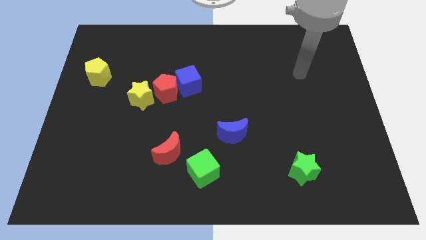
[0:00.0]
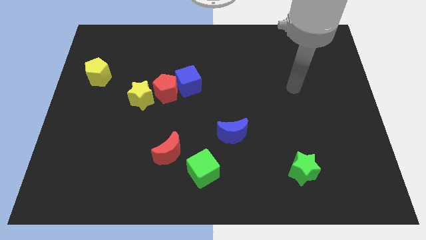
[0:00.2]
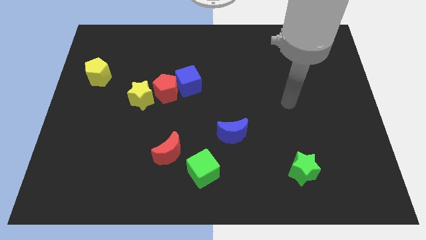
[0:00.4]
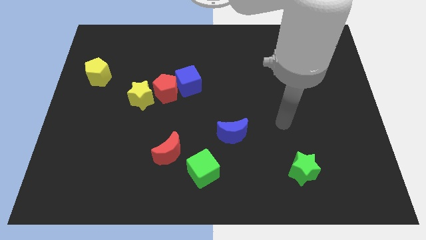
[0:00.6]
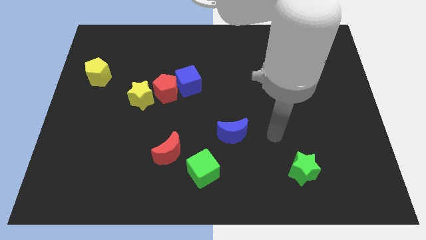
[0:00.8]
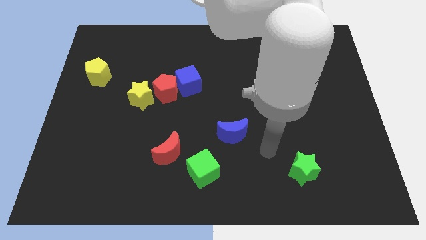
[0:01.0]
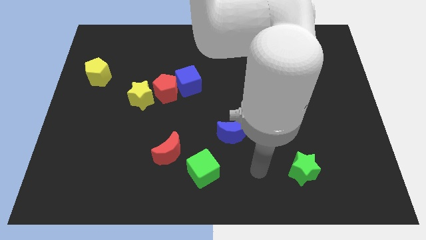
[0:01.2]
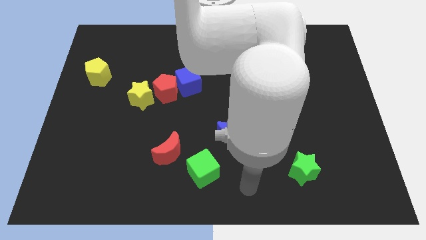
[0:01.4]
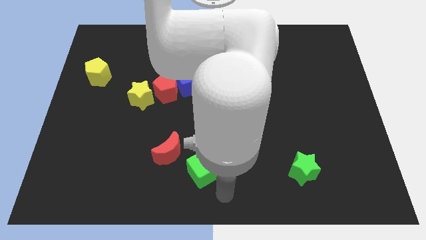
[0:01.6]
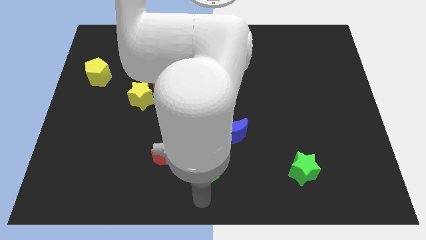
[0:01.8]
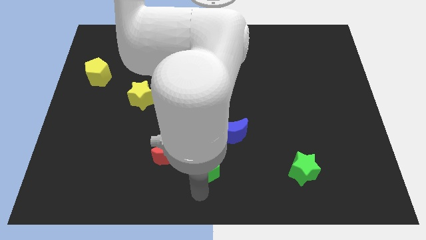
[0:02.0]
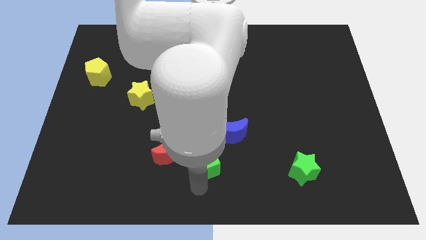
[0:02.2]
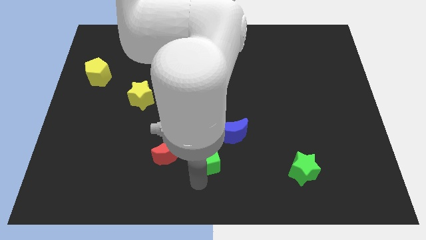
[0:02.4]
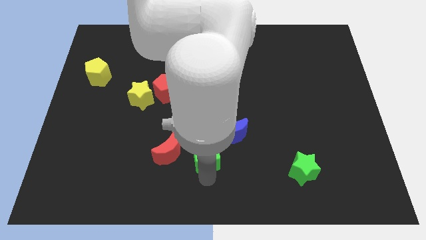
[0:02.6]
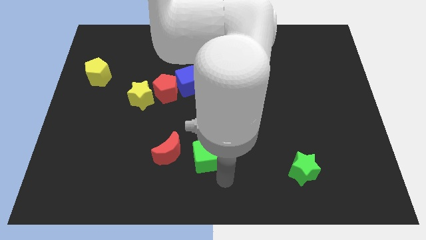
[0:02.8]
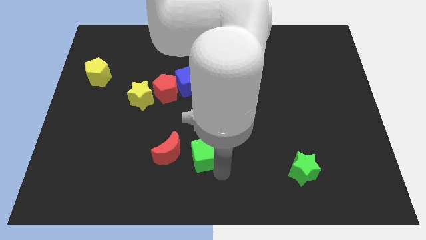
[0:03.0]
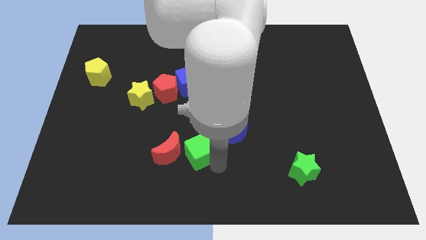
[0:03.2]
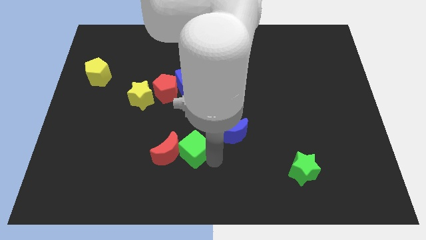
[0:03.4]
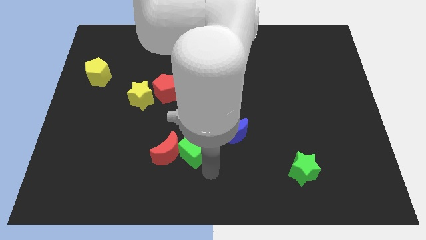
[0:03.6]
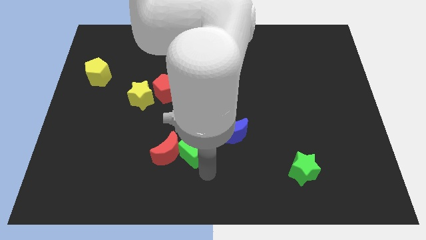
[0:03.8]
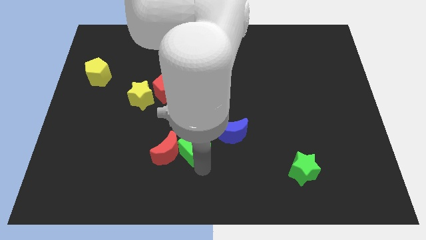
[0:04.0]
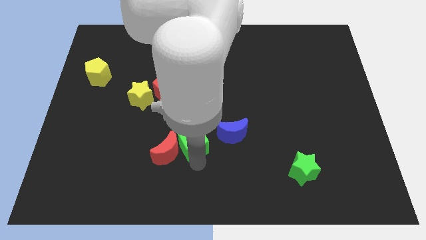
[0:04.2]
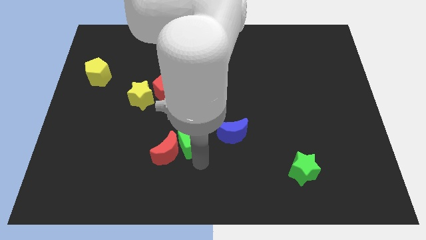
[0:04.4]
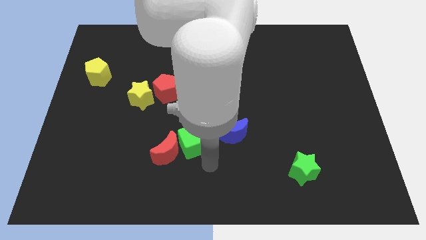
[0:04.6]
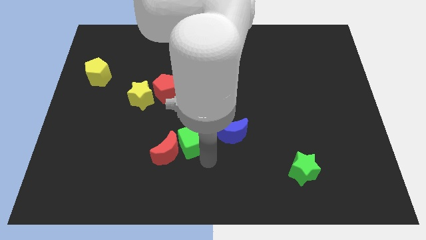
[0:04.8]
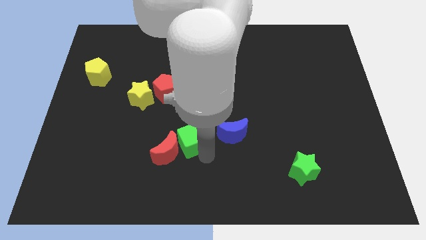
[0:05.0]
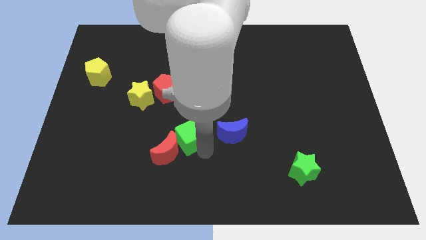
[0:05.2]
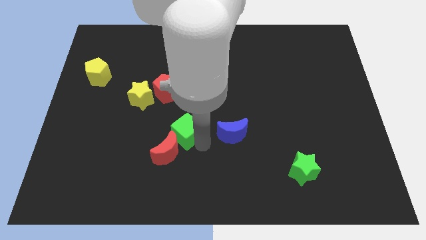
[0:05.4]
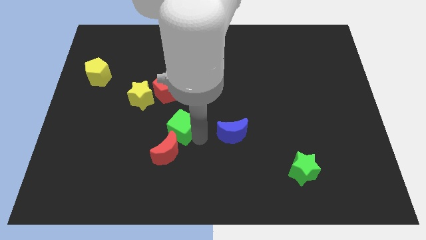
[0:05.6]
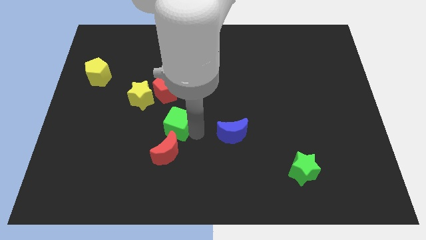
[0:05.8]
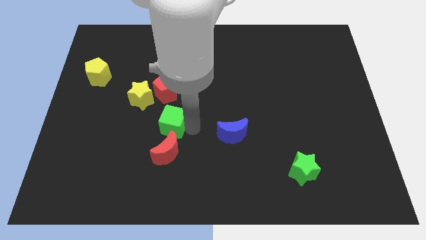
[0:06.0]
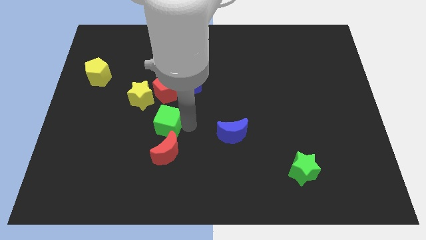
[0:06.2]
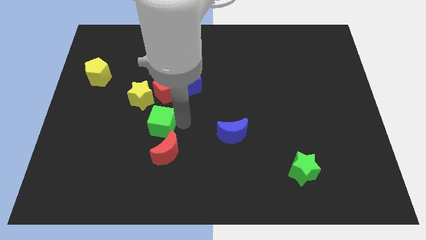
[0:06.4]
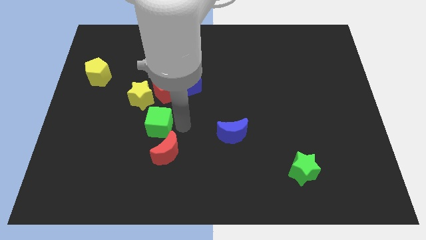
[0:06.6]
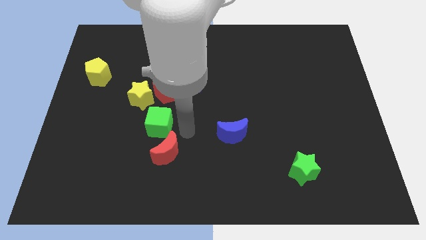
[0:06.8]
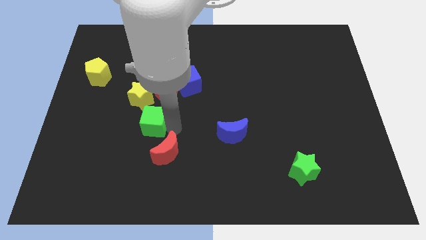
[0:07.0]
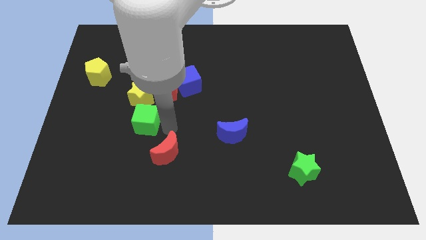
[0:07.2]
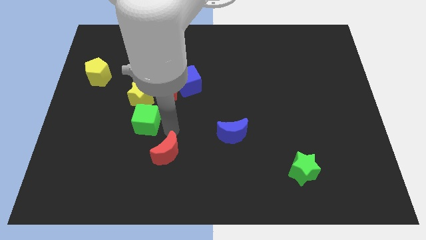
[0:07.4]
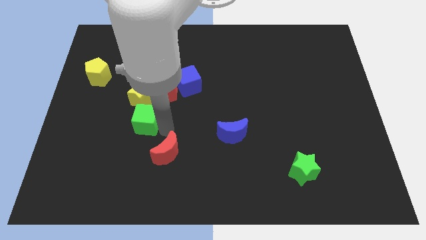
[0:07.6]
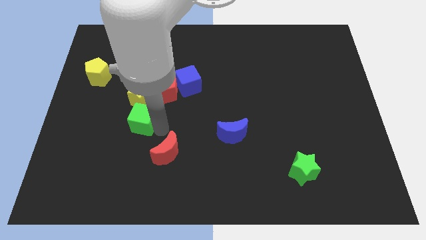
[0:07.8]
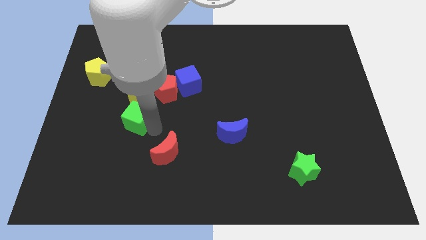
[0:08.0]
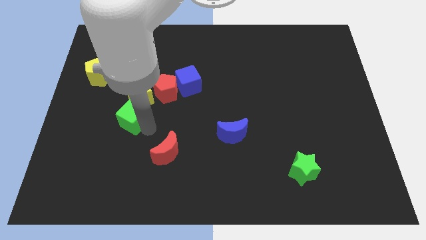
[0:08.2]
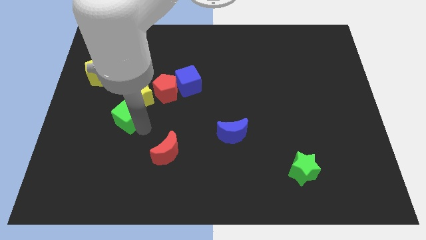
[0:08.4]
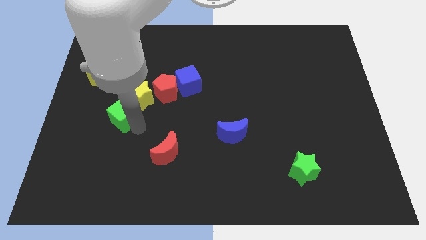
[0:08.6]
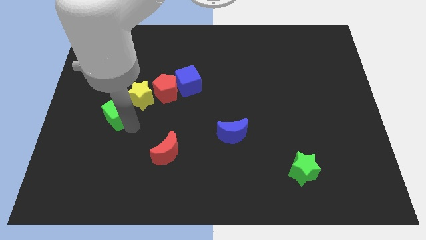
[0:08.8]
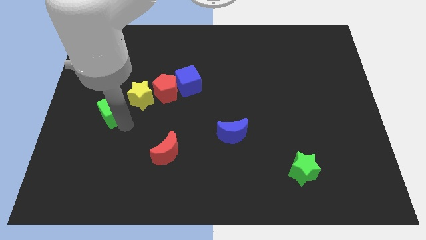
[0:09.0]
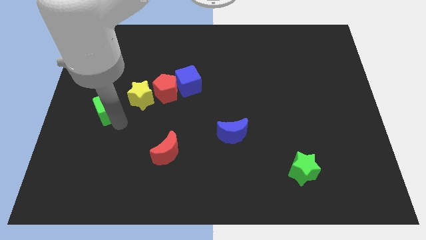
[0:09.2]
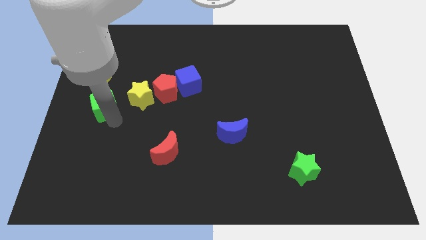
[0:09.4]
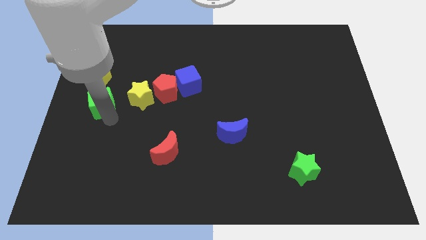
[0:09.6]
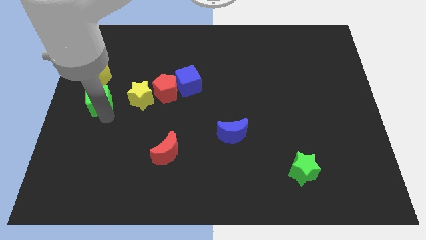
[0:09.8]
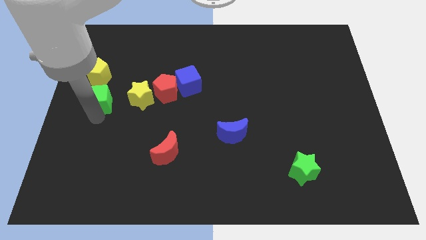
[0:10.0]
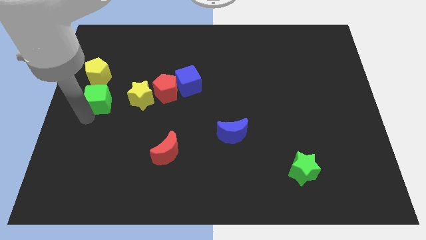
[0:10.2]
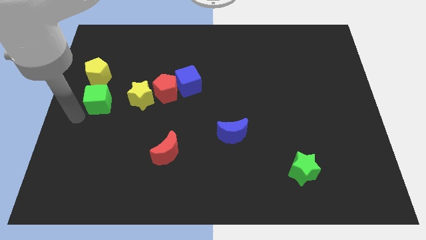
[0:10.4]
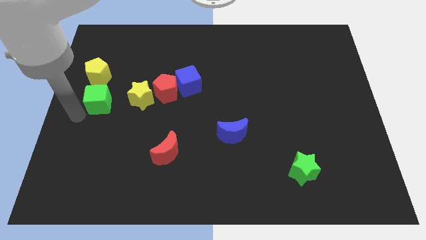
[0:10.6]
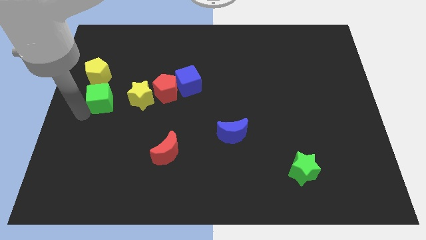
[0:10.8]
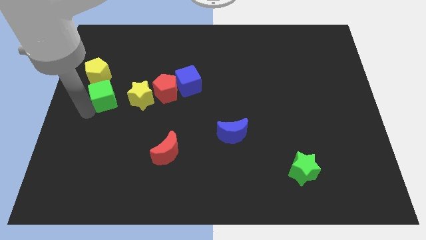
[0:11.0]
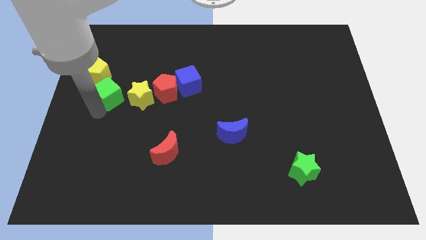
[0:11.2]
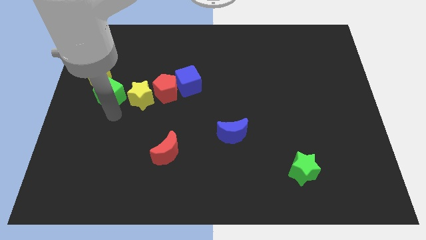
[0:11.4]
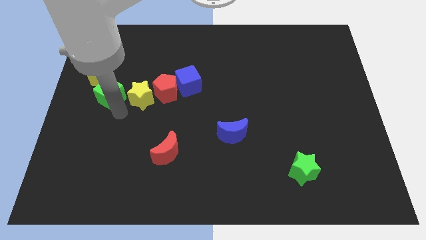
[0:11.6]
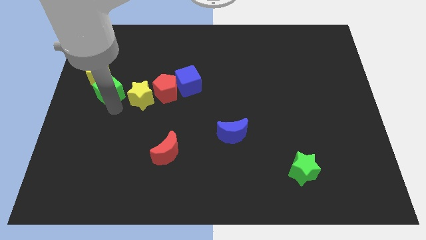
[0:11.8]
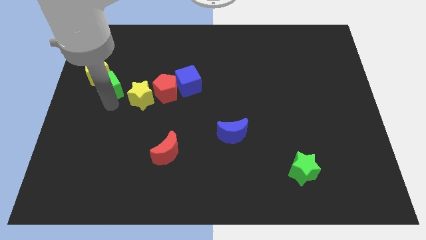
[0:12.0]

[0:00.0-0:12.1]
slide the green cube towards the yellow pentagon

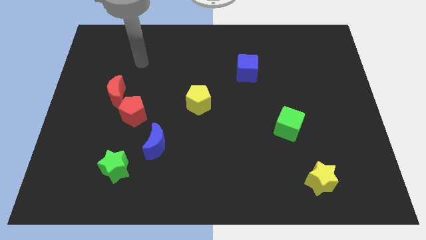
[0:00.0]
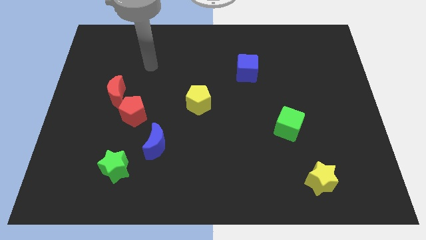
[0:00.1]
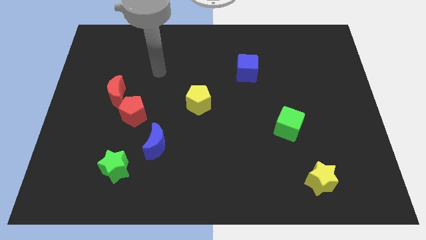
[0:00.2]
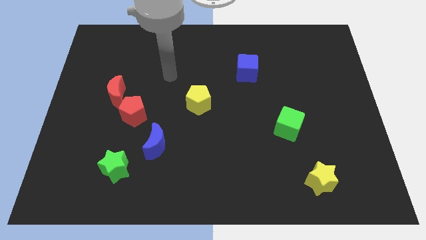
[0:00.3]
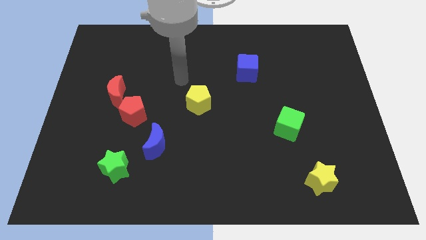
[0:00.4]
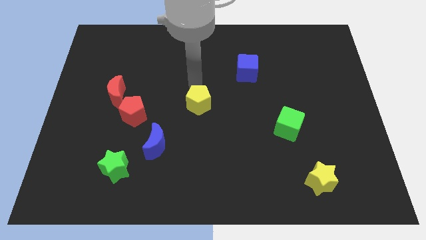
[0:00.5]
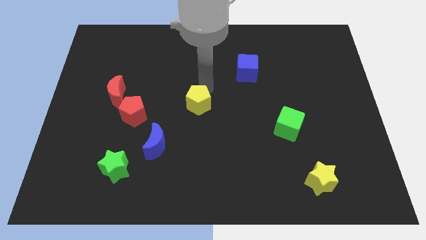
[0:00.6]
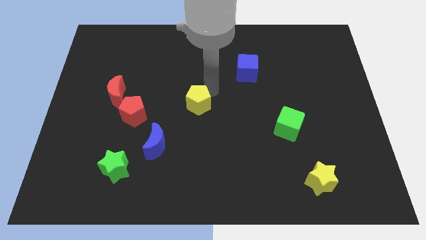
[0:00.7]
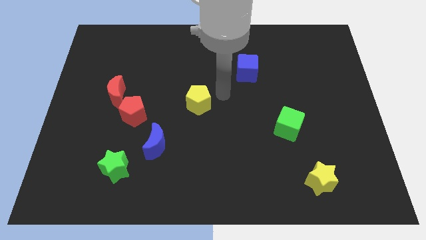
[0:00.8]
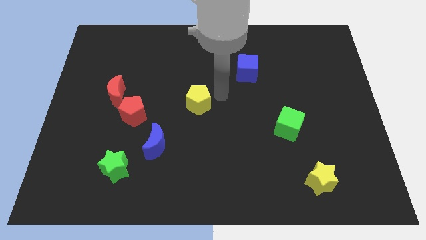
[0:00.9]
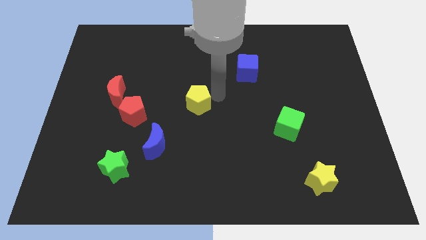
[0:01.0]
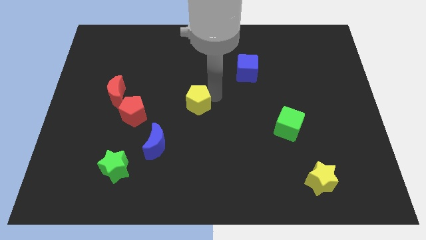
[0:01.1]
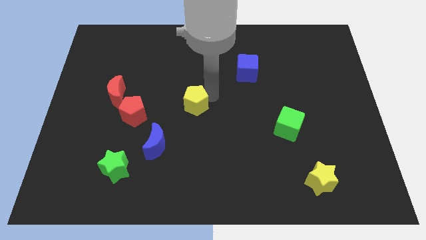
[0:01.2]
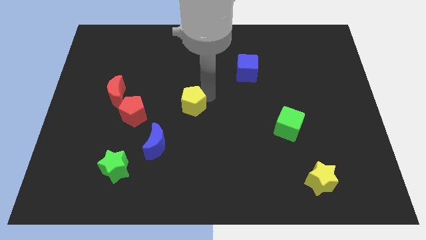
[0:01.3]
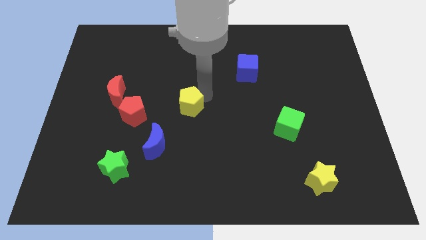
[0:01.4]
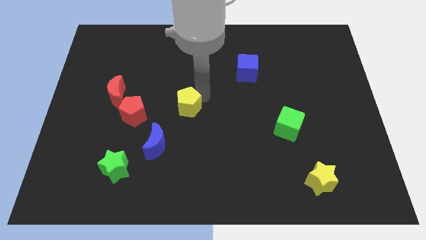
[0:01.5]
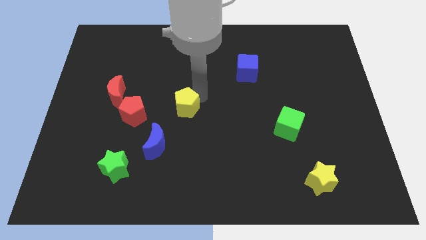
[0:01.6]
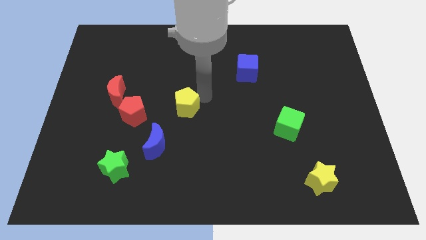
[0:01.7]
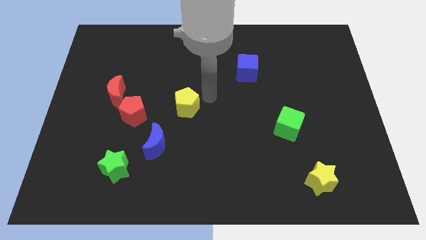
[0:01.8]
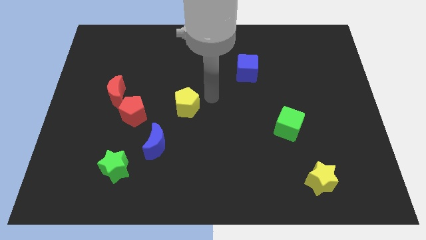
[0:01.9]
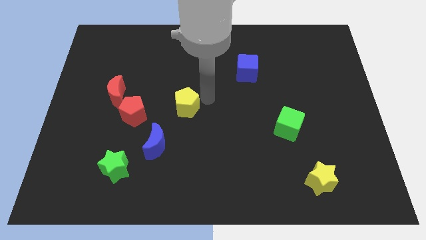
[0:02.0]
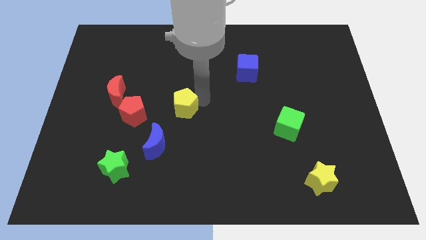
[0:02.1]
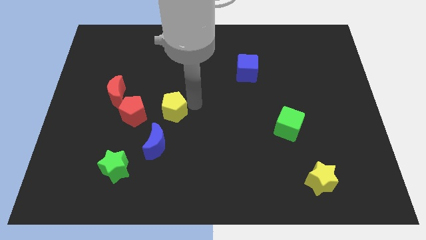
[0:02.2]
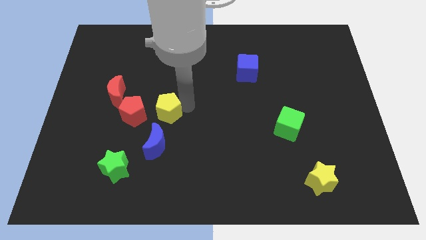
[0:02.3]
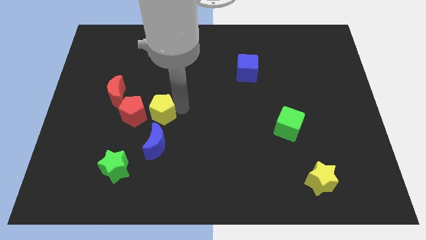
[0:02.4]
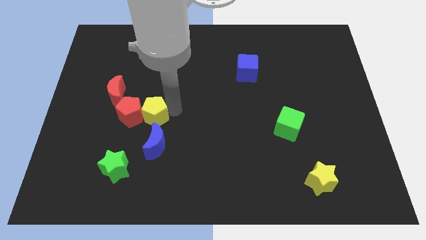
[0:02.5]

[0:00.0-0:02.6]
put the yellow pentagon next to the red pentagon
